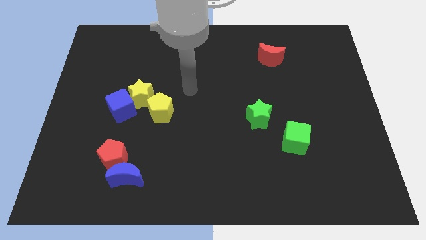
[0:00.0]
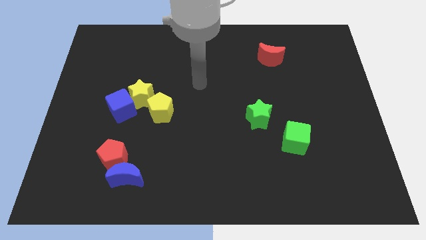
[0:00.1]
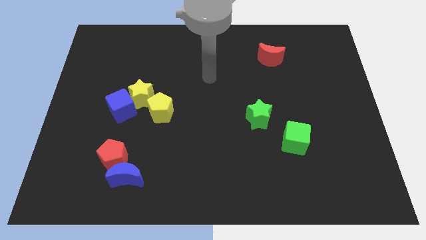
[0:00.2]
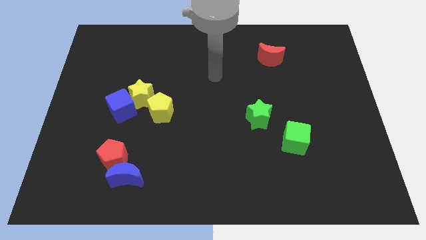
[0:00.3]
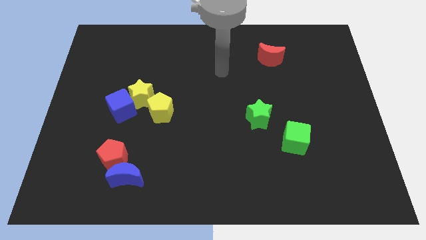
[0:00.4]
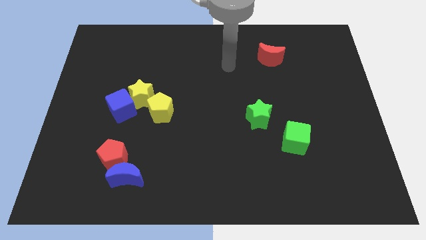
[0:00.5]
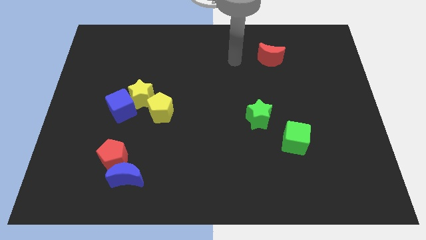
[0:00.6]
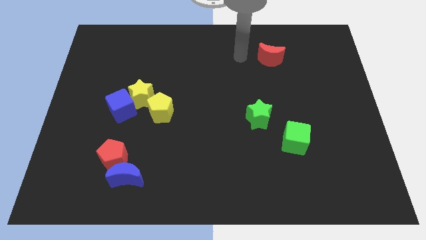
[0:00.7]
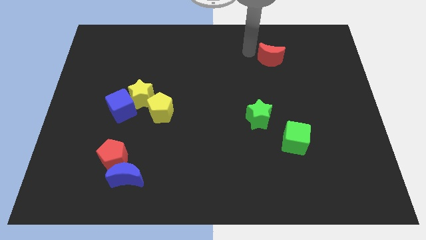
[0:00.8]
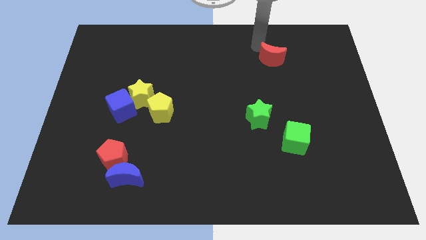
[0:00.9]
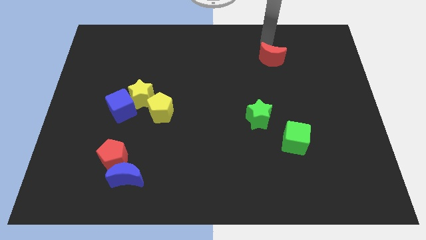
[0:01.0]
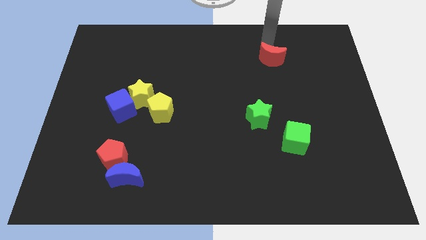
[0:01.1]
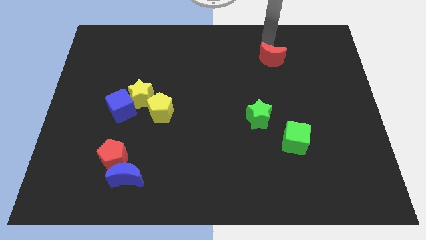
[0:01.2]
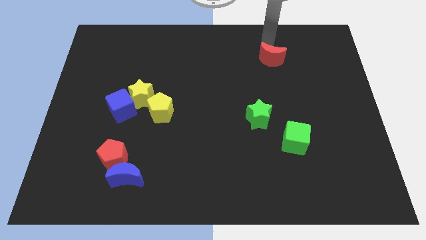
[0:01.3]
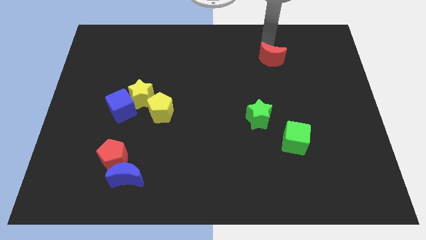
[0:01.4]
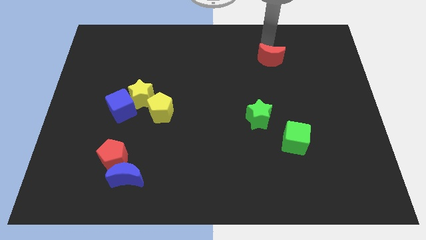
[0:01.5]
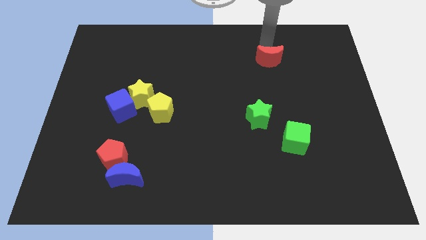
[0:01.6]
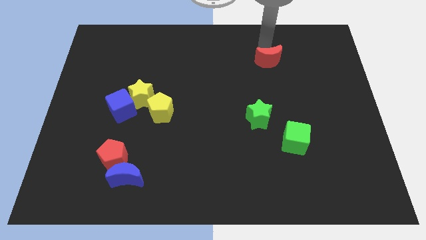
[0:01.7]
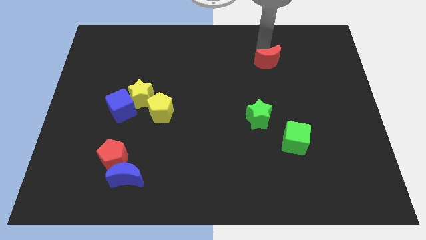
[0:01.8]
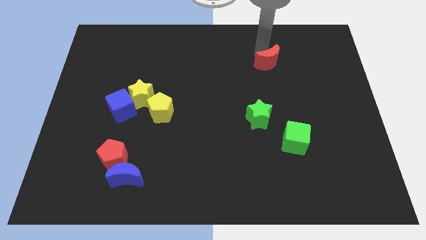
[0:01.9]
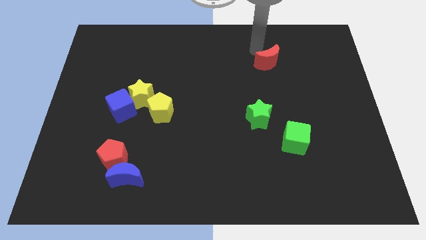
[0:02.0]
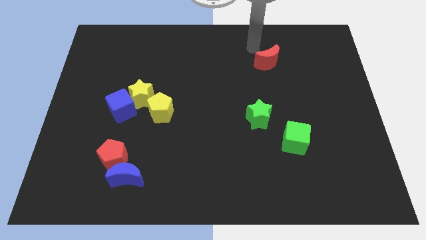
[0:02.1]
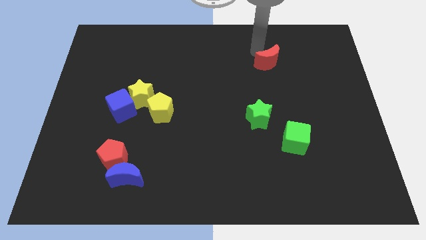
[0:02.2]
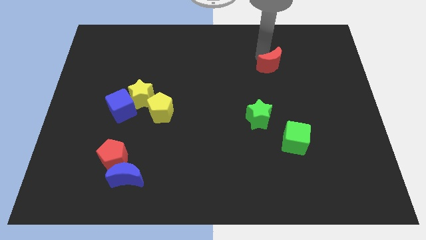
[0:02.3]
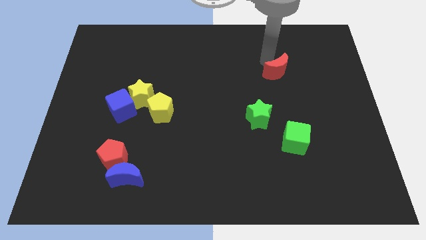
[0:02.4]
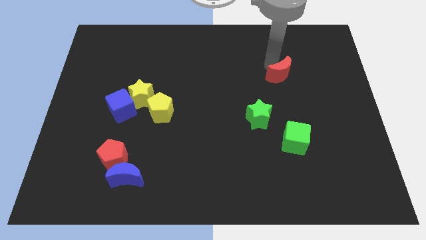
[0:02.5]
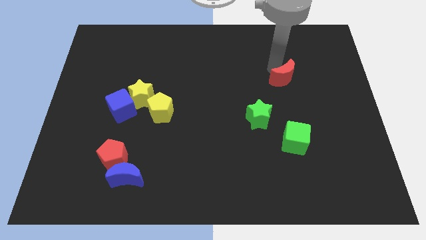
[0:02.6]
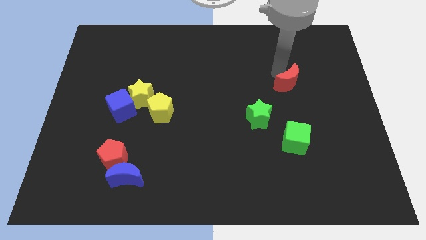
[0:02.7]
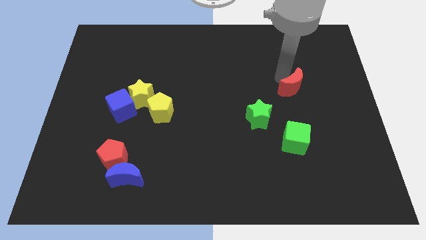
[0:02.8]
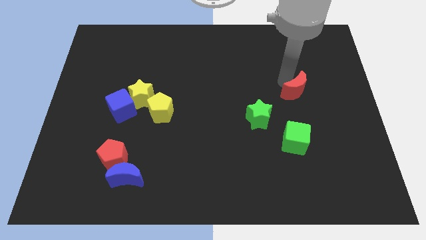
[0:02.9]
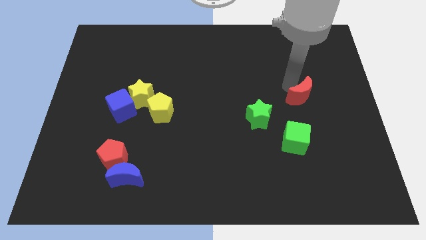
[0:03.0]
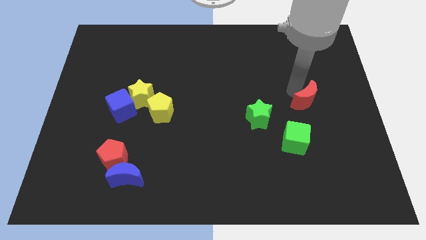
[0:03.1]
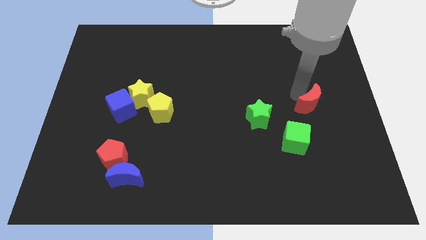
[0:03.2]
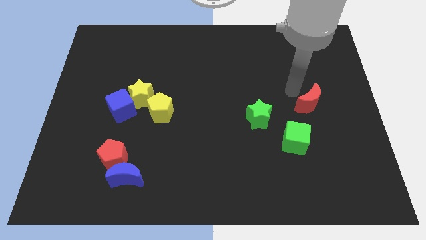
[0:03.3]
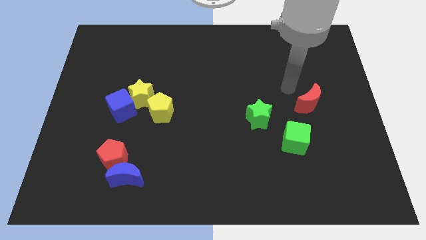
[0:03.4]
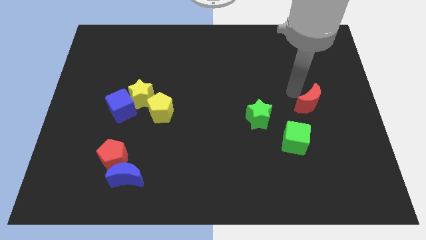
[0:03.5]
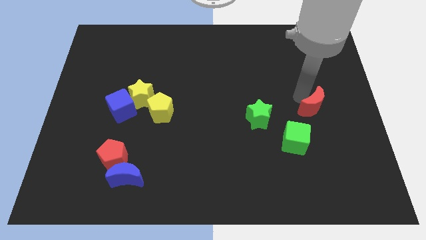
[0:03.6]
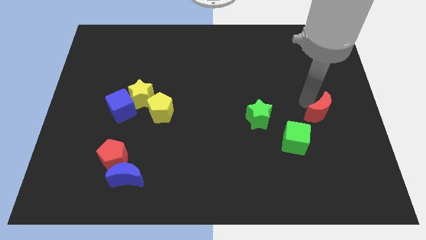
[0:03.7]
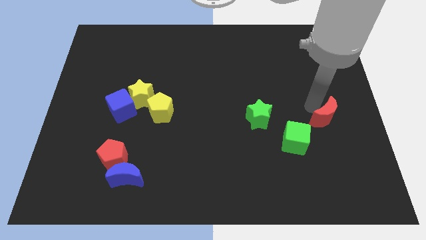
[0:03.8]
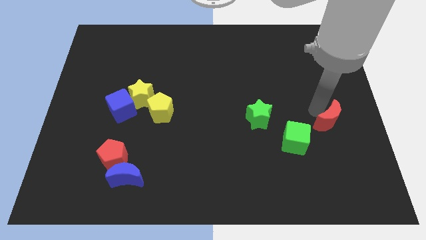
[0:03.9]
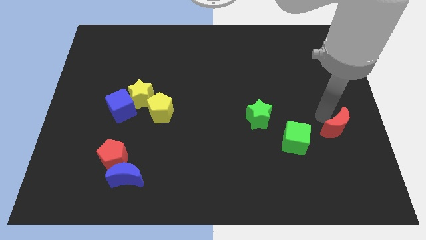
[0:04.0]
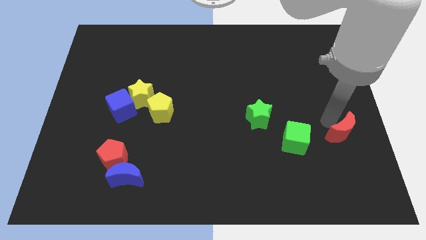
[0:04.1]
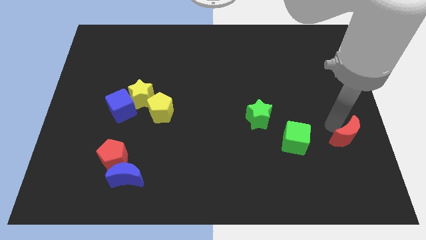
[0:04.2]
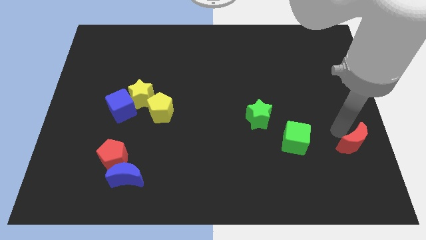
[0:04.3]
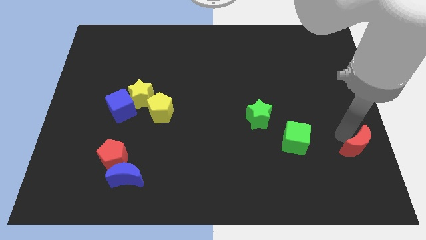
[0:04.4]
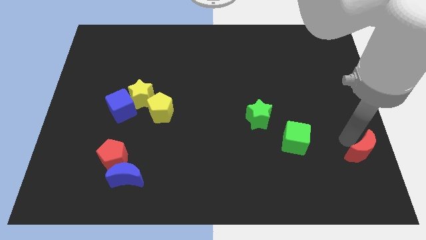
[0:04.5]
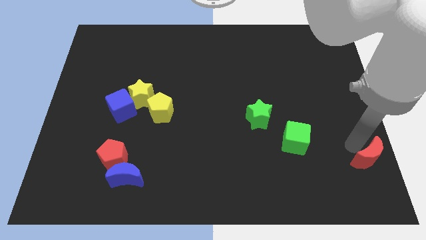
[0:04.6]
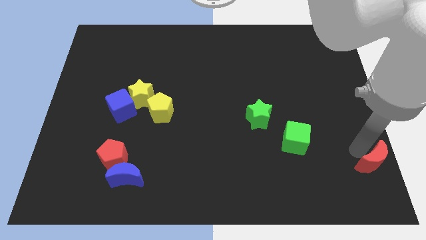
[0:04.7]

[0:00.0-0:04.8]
push the red moon to the bottom right corner

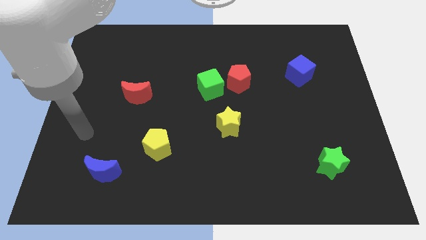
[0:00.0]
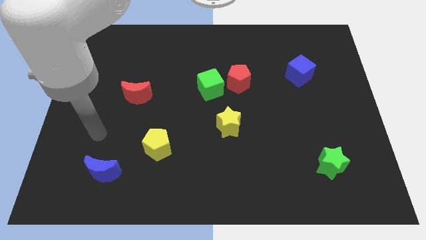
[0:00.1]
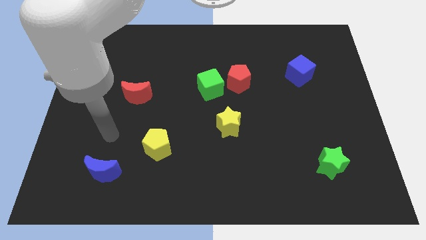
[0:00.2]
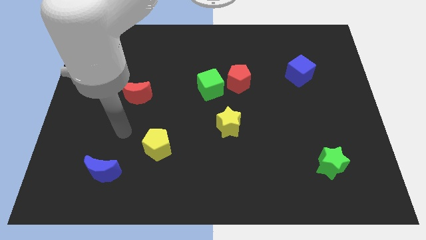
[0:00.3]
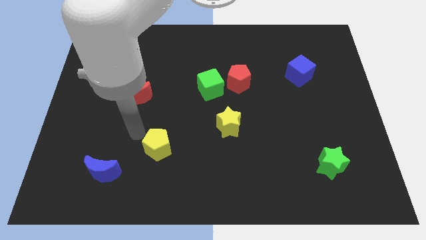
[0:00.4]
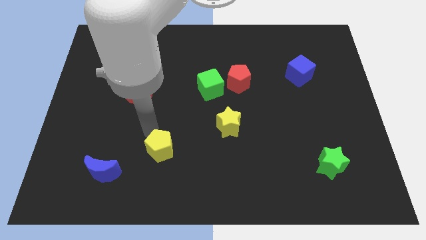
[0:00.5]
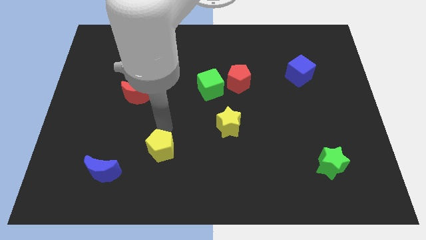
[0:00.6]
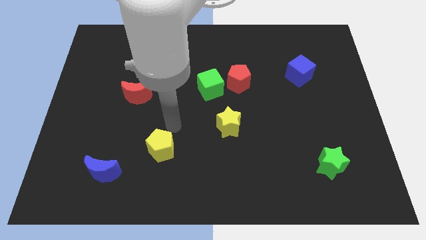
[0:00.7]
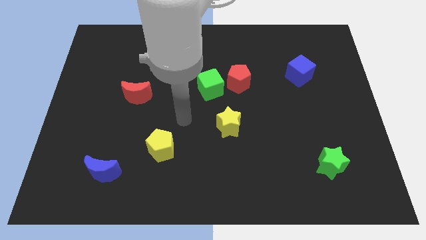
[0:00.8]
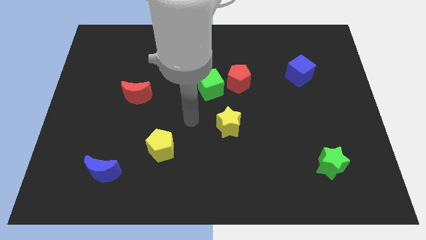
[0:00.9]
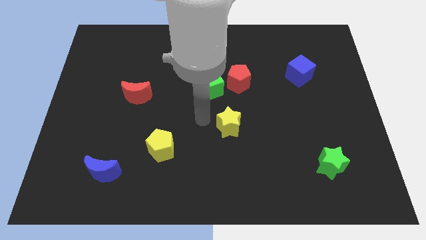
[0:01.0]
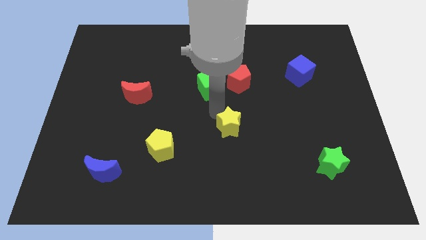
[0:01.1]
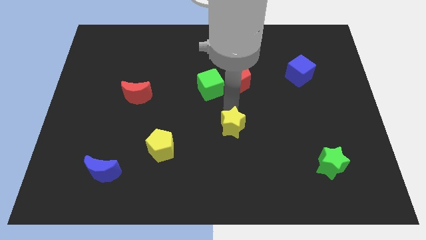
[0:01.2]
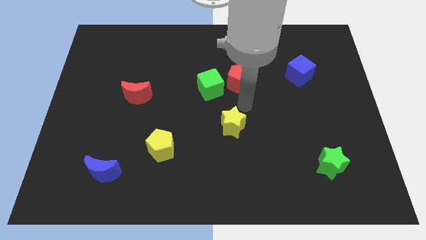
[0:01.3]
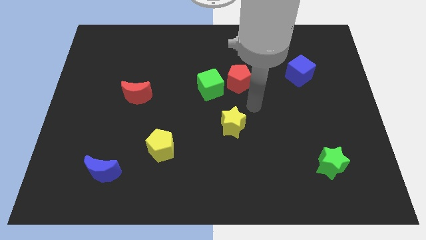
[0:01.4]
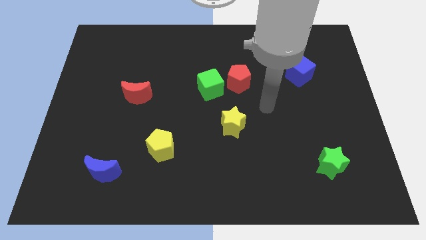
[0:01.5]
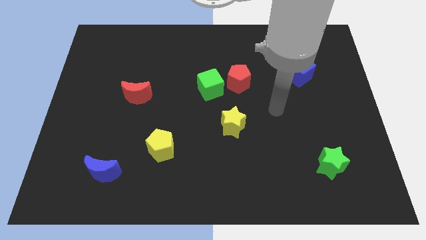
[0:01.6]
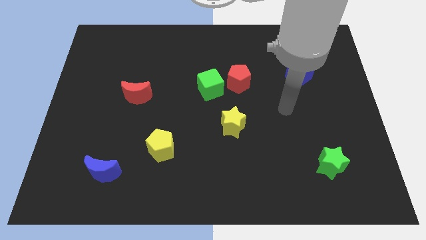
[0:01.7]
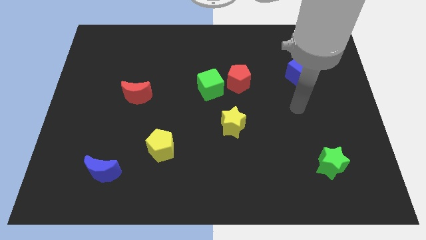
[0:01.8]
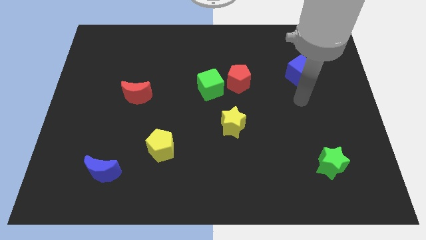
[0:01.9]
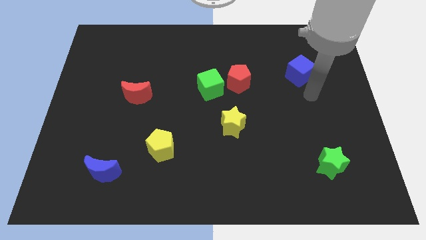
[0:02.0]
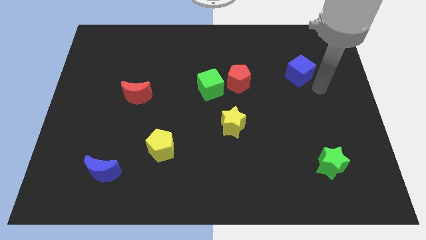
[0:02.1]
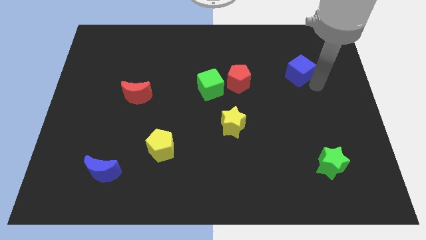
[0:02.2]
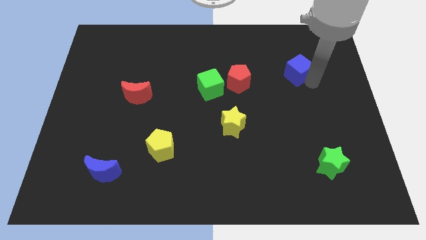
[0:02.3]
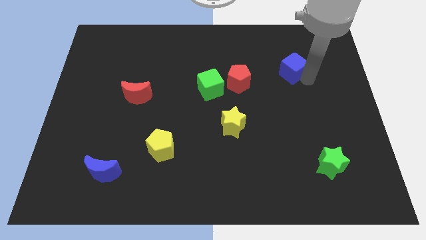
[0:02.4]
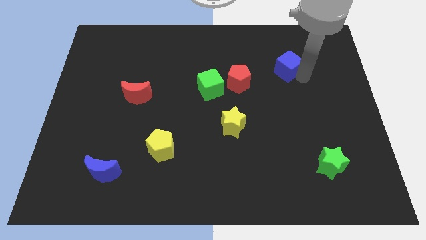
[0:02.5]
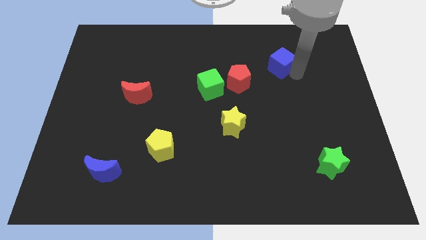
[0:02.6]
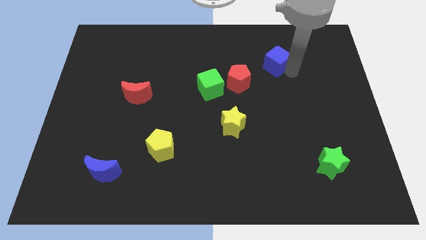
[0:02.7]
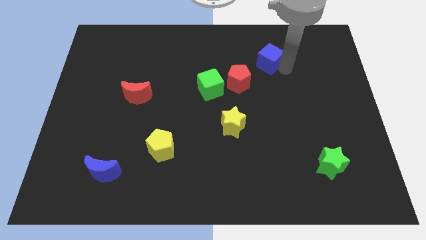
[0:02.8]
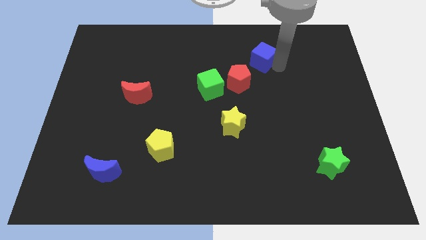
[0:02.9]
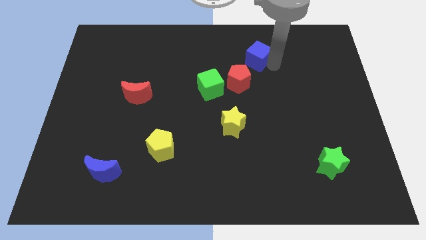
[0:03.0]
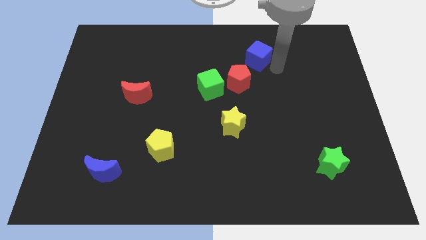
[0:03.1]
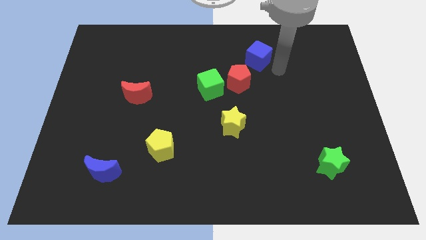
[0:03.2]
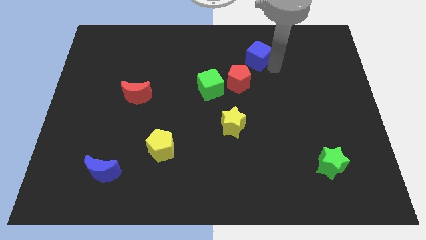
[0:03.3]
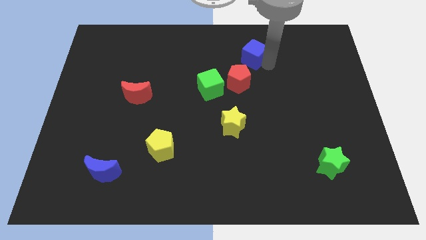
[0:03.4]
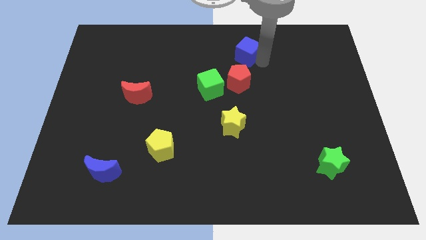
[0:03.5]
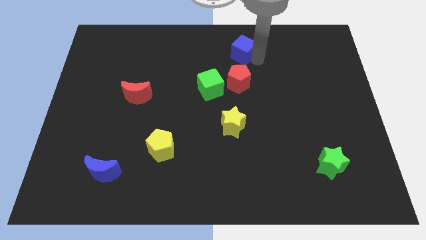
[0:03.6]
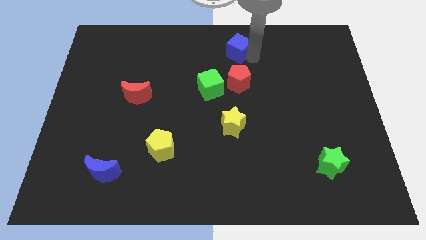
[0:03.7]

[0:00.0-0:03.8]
slide the blue cube to the top
